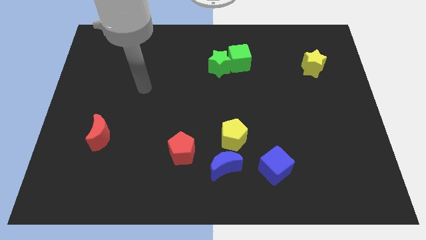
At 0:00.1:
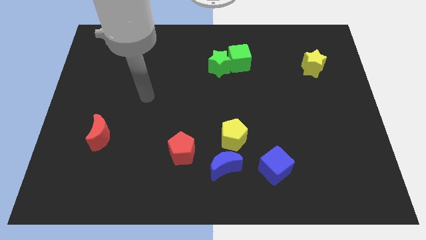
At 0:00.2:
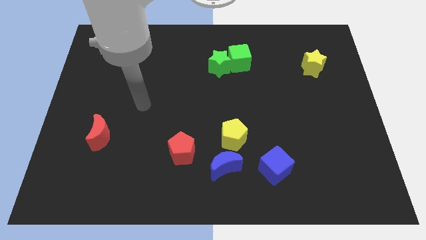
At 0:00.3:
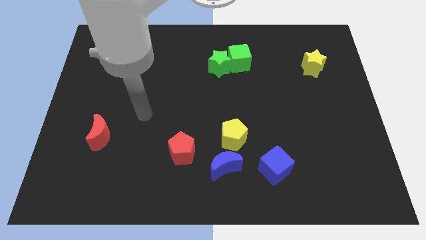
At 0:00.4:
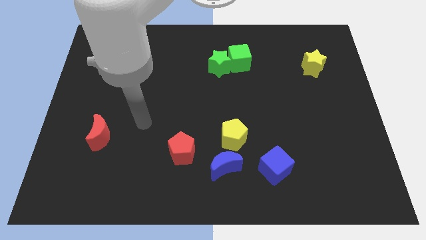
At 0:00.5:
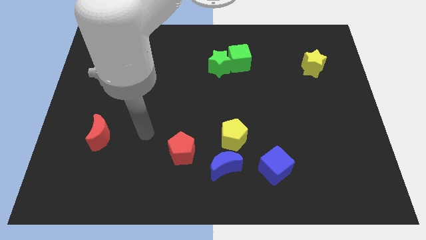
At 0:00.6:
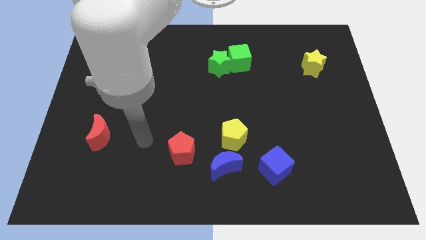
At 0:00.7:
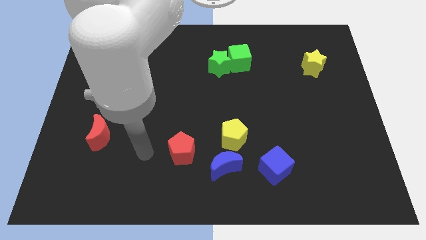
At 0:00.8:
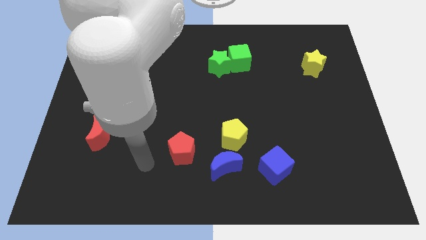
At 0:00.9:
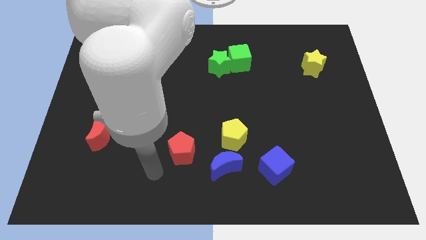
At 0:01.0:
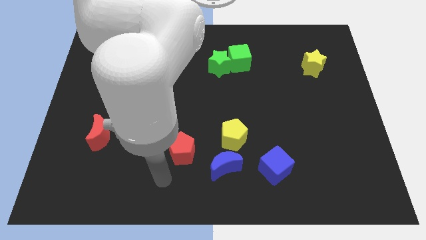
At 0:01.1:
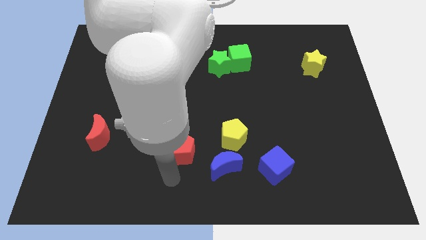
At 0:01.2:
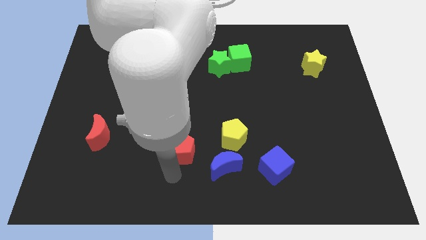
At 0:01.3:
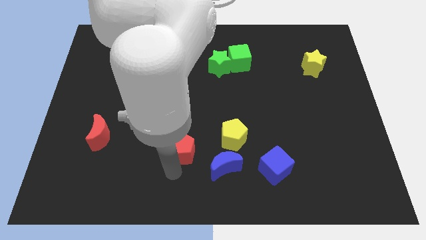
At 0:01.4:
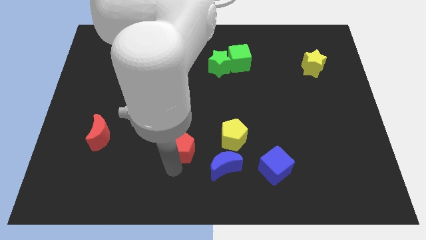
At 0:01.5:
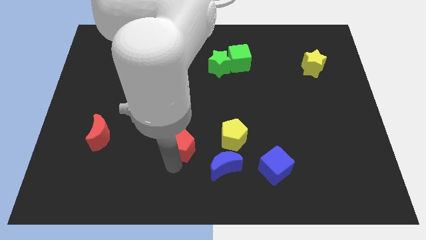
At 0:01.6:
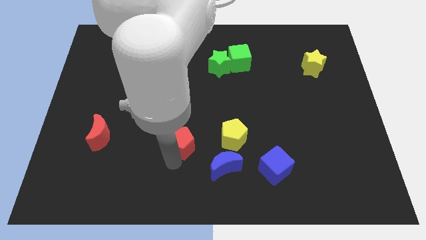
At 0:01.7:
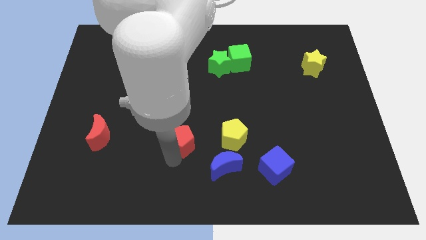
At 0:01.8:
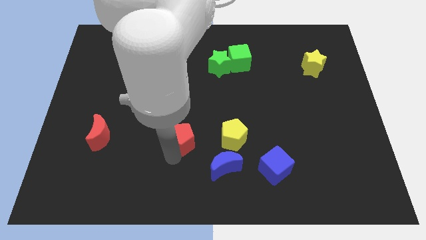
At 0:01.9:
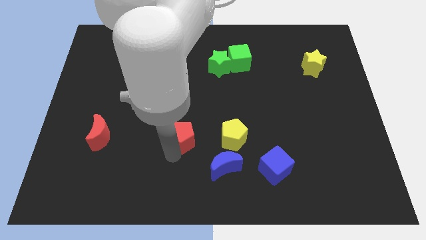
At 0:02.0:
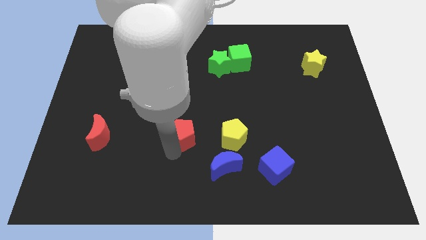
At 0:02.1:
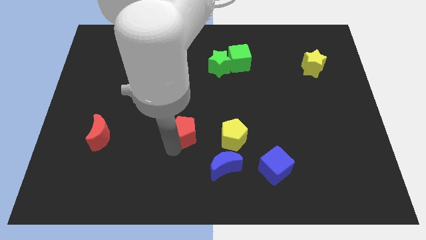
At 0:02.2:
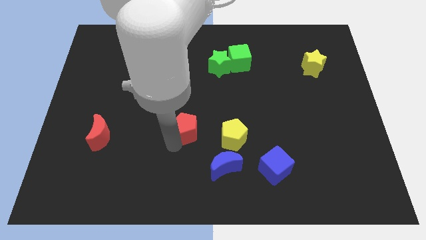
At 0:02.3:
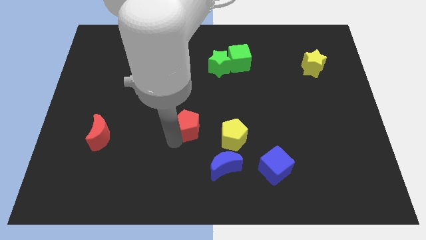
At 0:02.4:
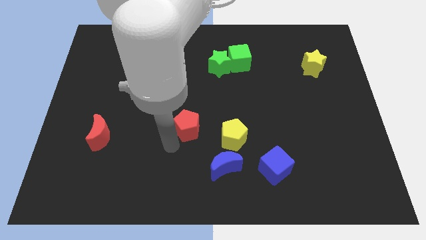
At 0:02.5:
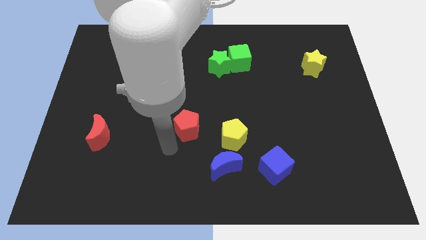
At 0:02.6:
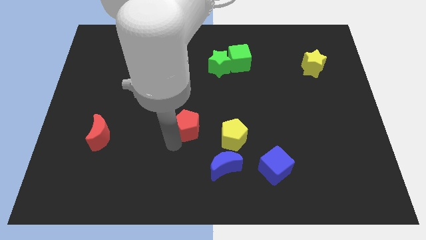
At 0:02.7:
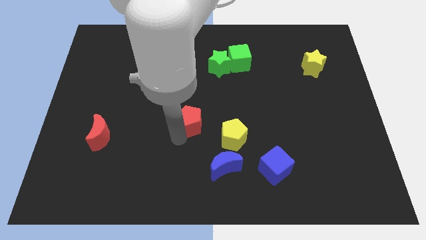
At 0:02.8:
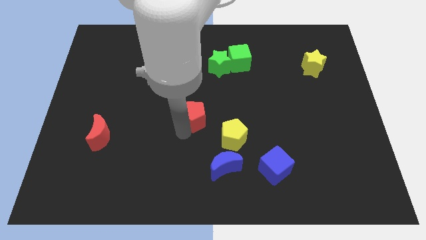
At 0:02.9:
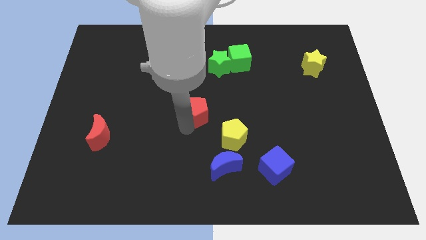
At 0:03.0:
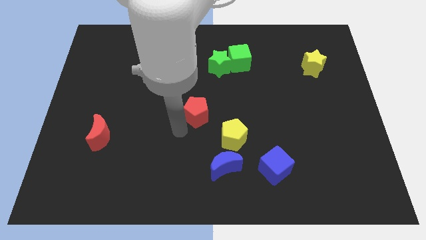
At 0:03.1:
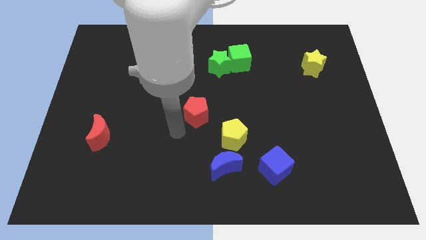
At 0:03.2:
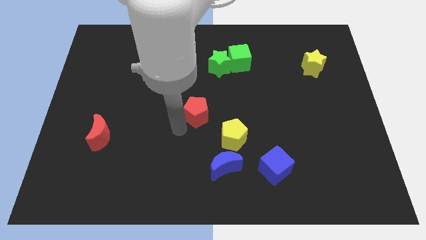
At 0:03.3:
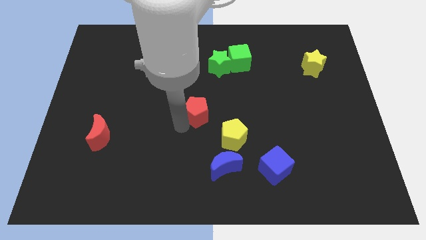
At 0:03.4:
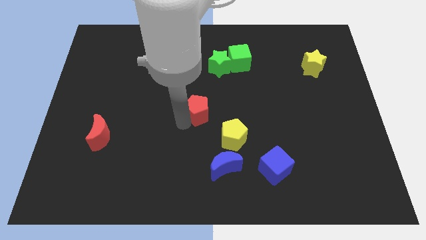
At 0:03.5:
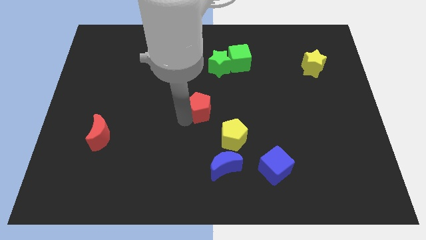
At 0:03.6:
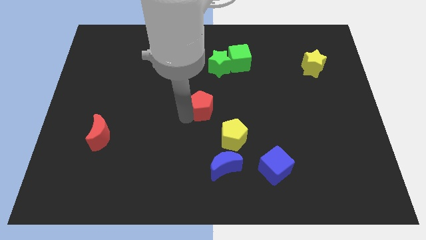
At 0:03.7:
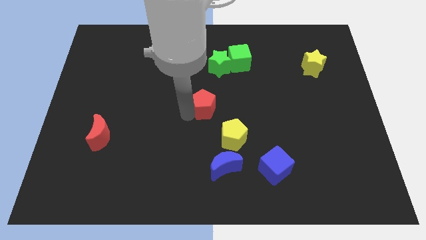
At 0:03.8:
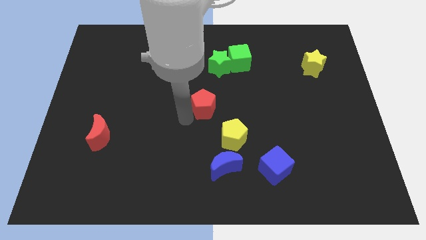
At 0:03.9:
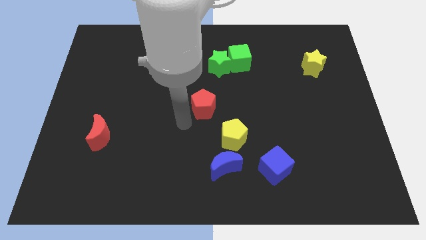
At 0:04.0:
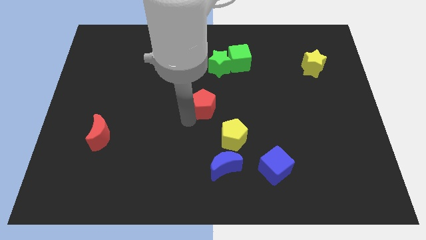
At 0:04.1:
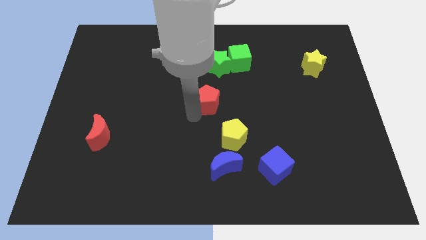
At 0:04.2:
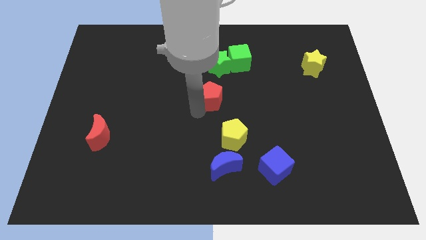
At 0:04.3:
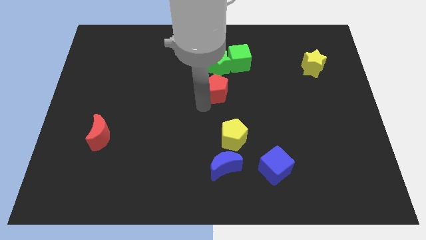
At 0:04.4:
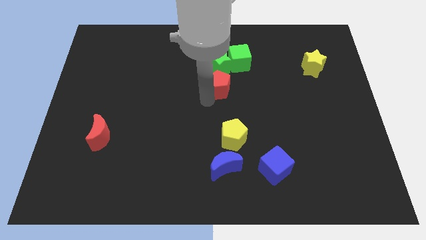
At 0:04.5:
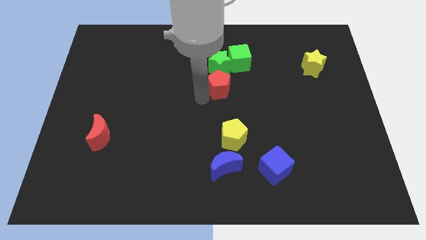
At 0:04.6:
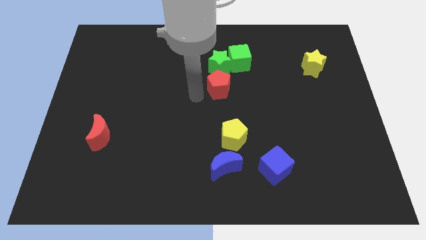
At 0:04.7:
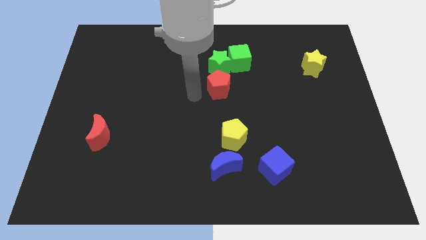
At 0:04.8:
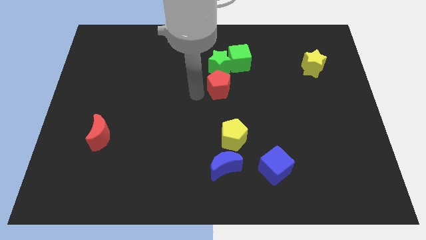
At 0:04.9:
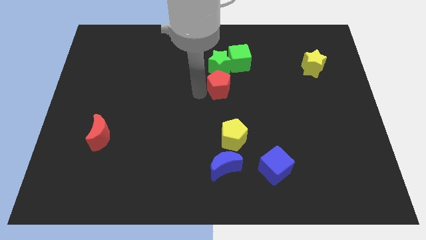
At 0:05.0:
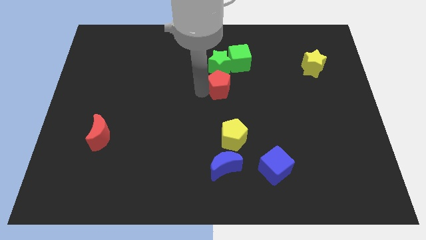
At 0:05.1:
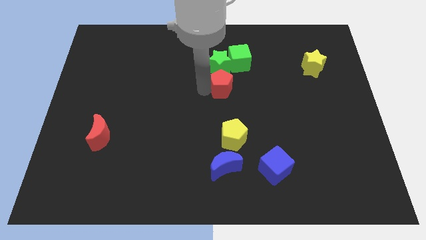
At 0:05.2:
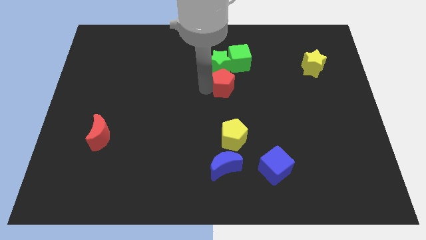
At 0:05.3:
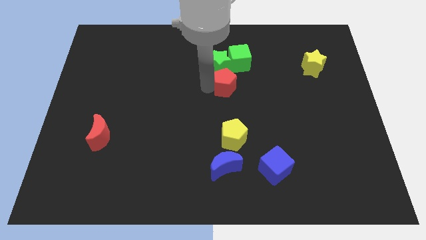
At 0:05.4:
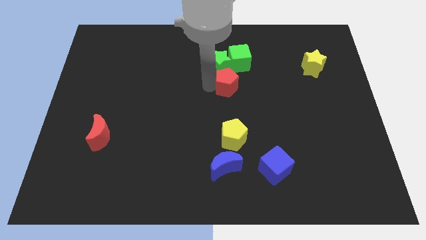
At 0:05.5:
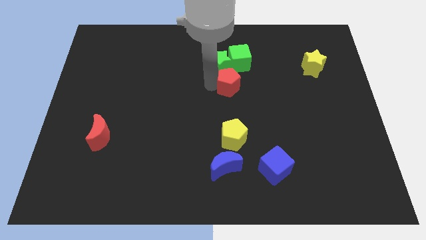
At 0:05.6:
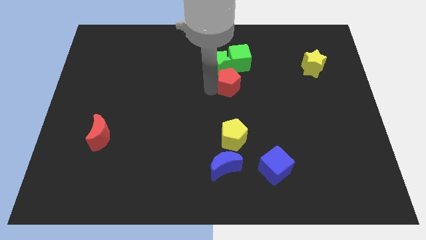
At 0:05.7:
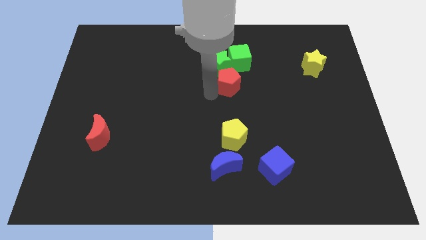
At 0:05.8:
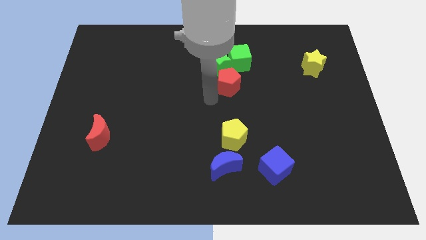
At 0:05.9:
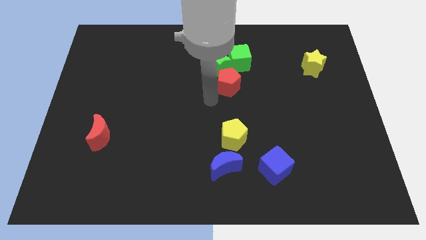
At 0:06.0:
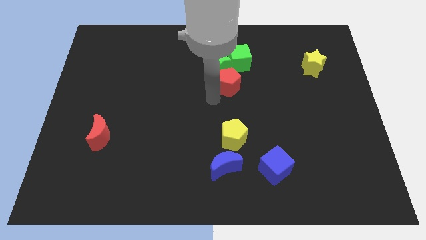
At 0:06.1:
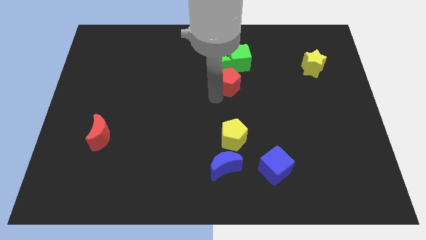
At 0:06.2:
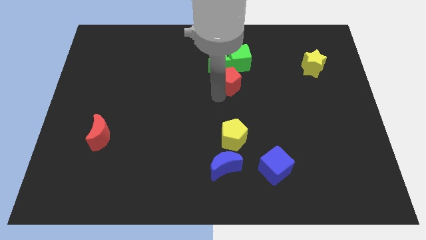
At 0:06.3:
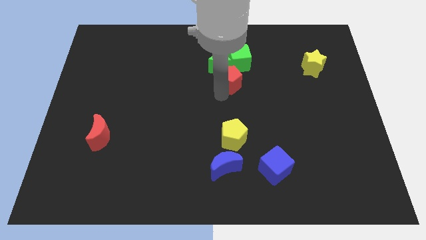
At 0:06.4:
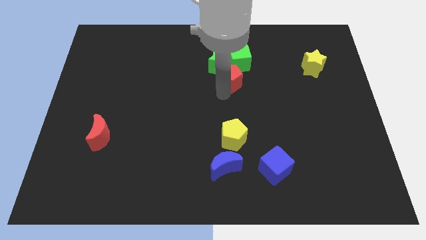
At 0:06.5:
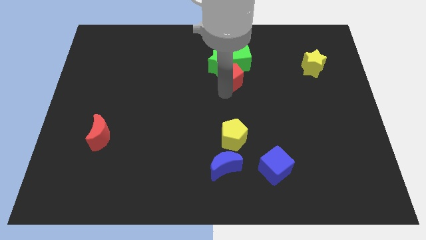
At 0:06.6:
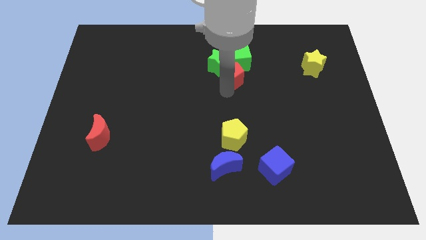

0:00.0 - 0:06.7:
slide the red pentagon next to the green cube

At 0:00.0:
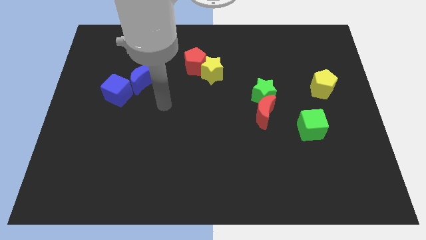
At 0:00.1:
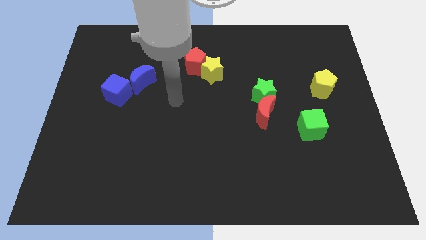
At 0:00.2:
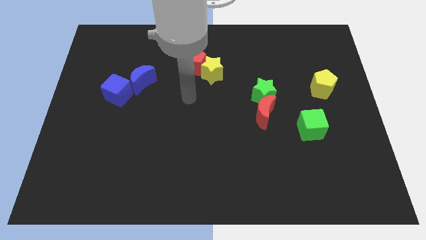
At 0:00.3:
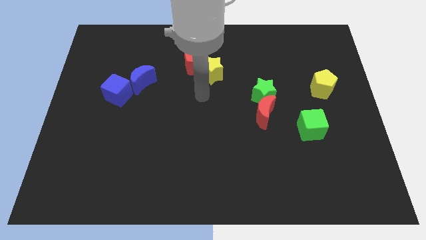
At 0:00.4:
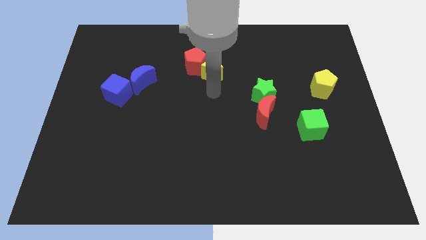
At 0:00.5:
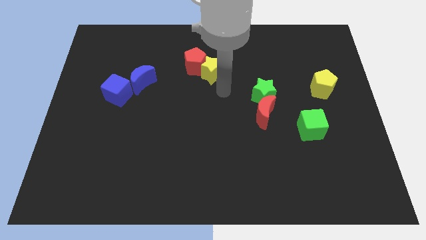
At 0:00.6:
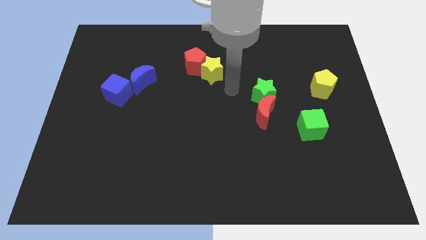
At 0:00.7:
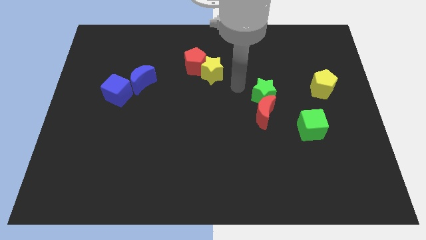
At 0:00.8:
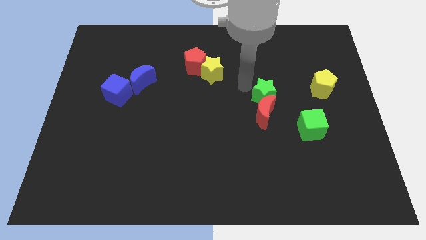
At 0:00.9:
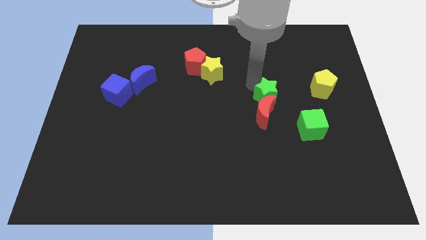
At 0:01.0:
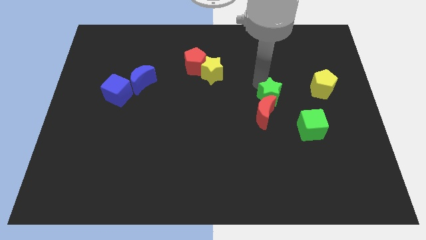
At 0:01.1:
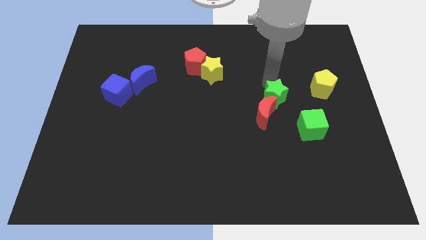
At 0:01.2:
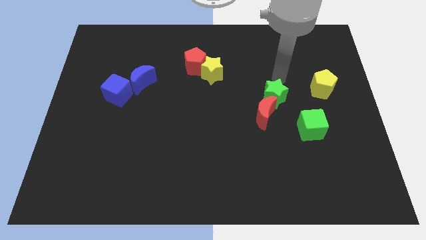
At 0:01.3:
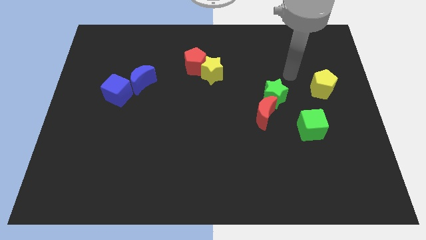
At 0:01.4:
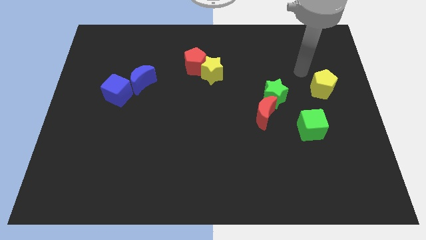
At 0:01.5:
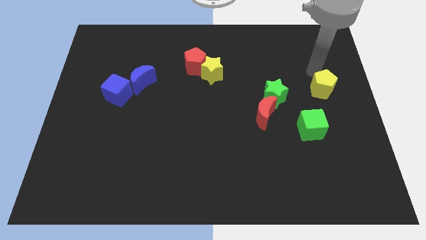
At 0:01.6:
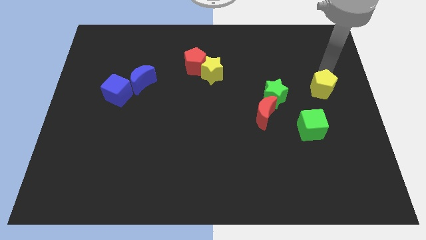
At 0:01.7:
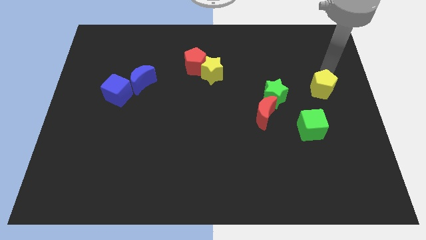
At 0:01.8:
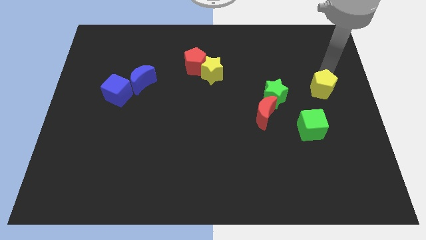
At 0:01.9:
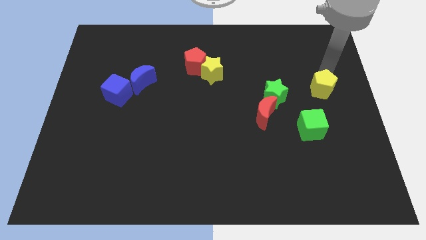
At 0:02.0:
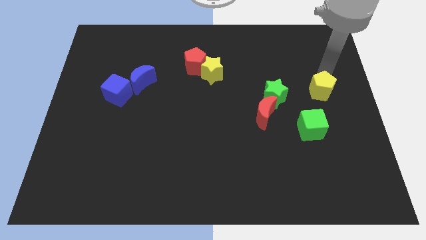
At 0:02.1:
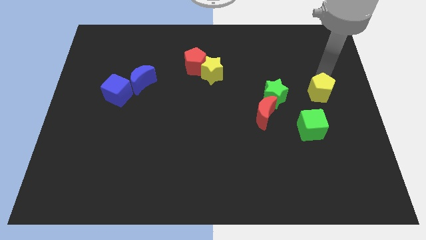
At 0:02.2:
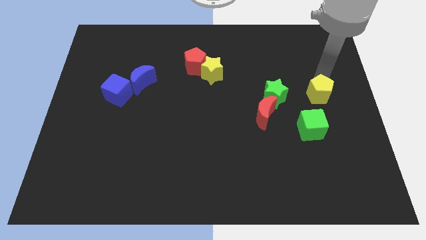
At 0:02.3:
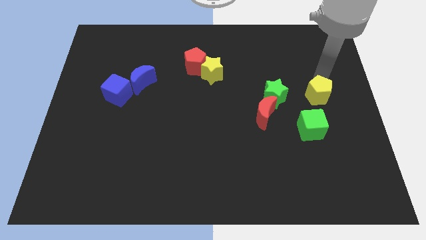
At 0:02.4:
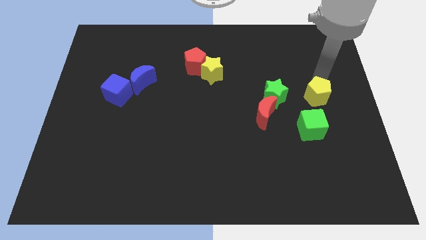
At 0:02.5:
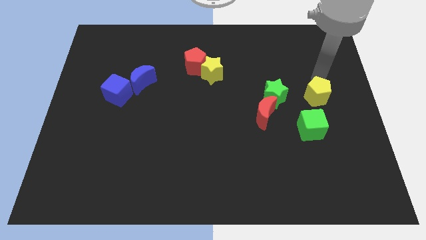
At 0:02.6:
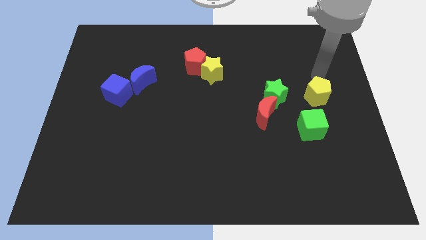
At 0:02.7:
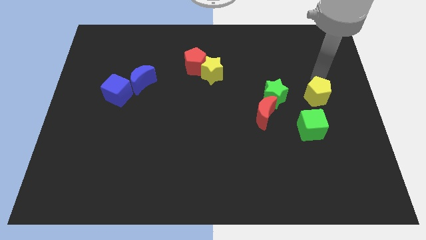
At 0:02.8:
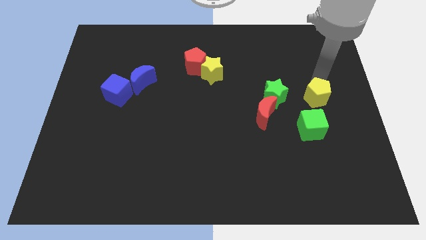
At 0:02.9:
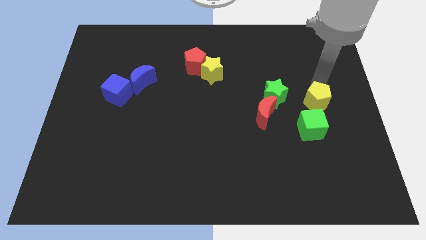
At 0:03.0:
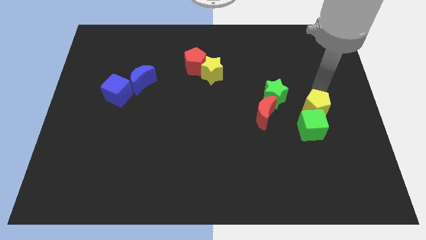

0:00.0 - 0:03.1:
slide the yellow pentagon towards the green cube
